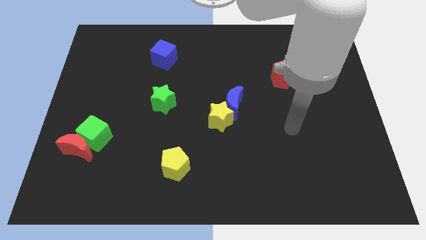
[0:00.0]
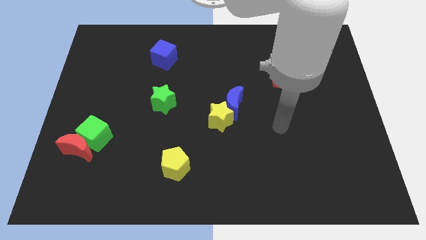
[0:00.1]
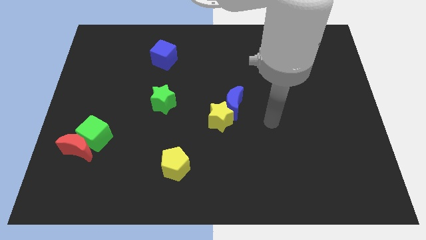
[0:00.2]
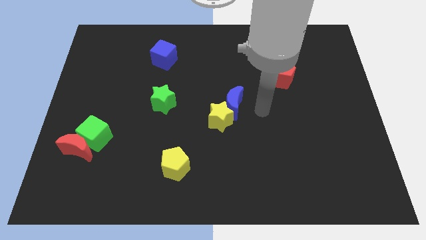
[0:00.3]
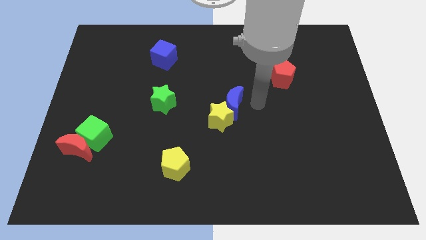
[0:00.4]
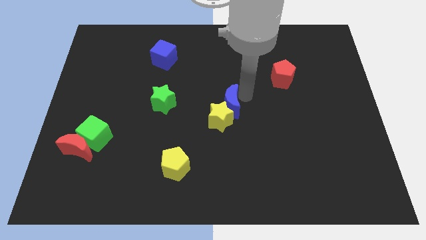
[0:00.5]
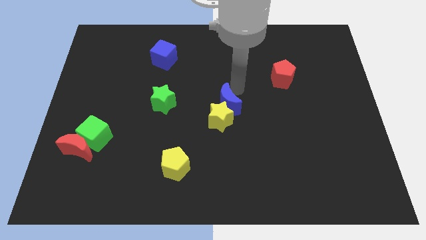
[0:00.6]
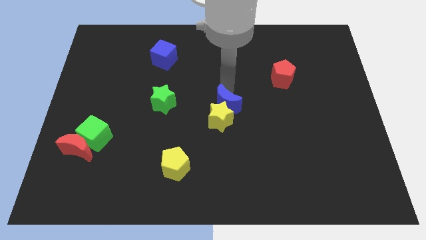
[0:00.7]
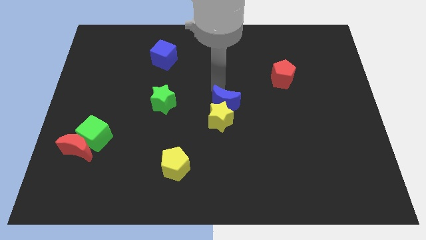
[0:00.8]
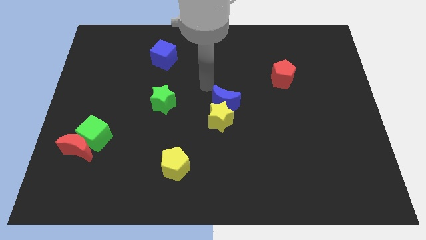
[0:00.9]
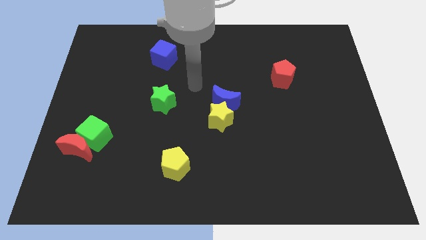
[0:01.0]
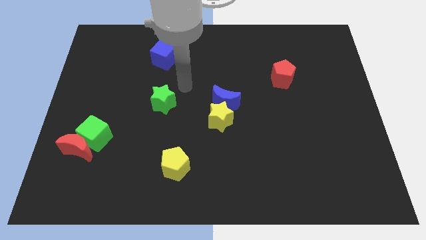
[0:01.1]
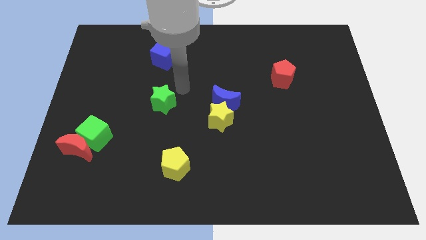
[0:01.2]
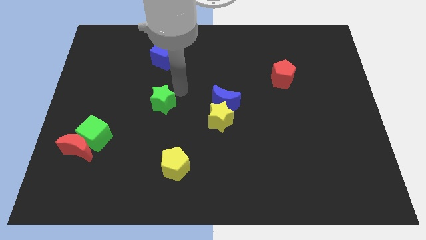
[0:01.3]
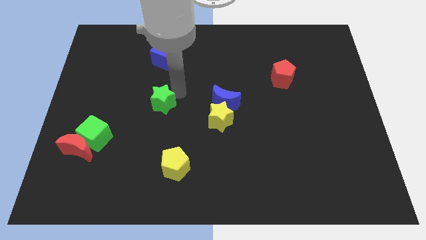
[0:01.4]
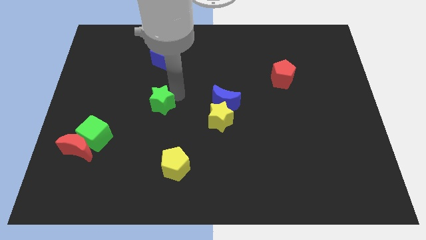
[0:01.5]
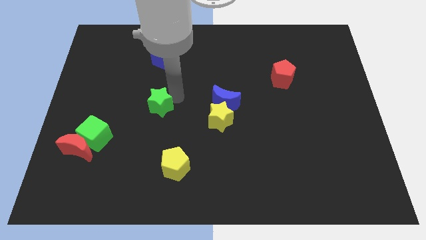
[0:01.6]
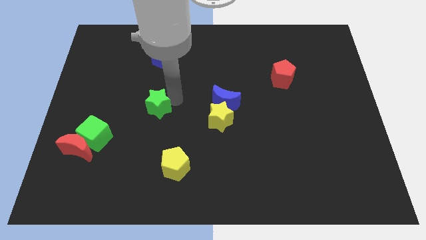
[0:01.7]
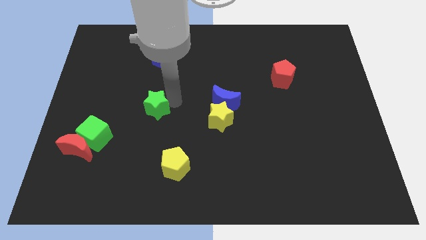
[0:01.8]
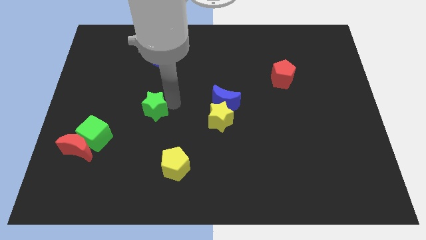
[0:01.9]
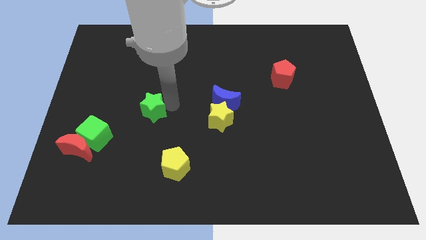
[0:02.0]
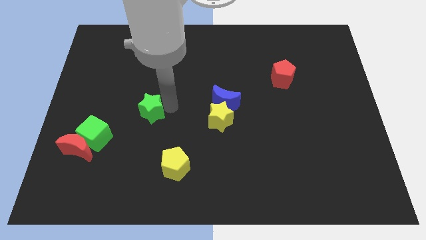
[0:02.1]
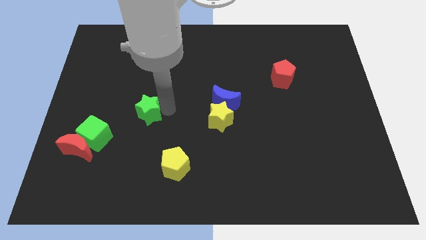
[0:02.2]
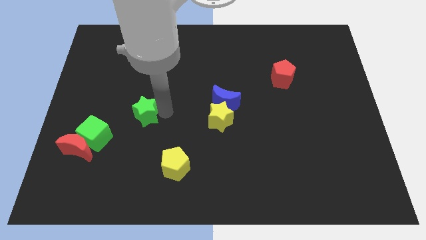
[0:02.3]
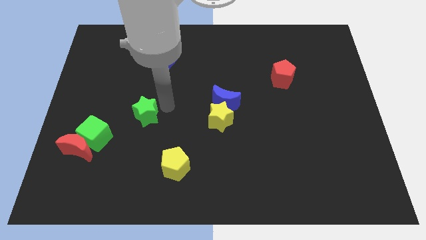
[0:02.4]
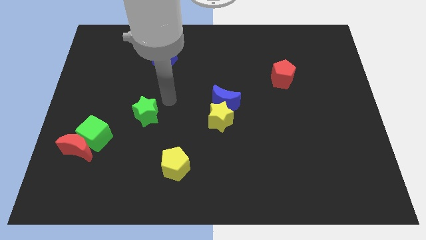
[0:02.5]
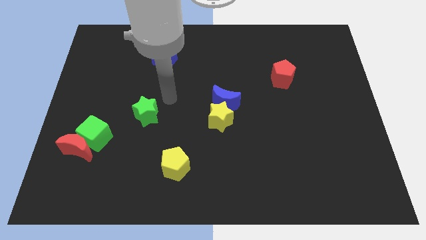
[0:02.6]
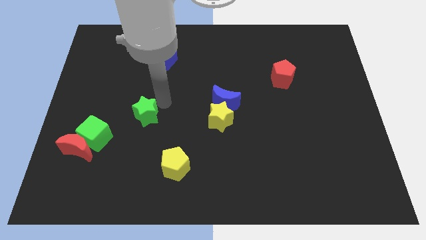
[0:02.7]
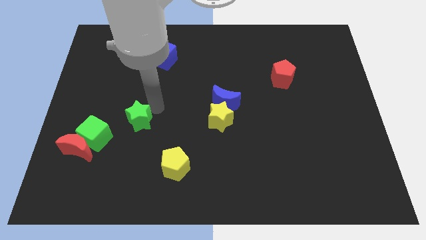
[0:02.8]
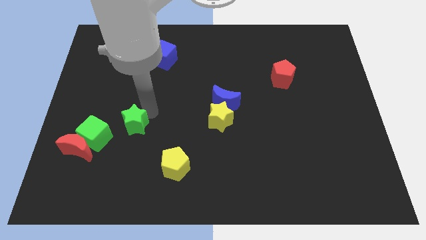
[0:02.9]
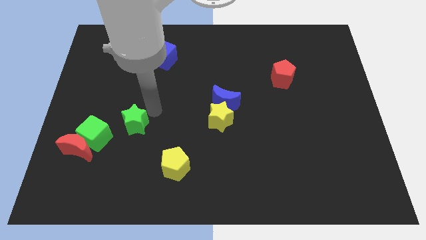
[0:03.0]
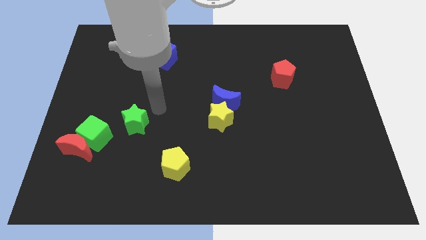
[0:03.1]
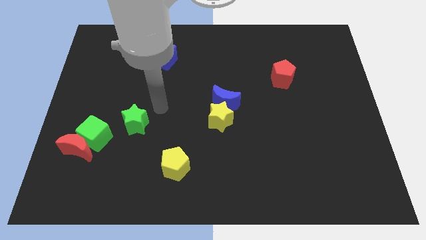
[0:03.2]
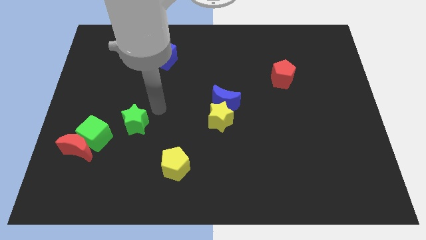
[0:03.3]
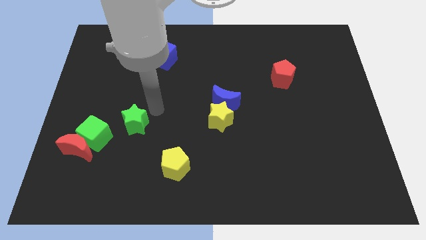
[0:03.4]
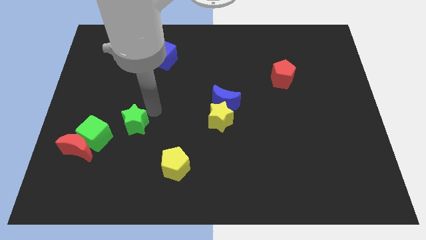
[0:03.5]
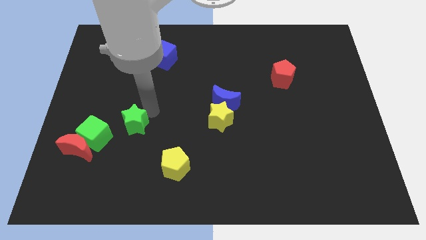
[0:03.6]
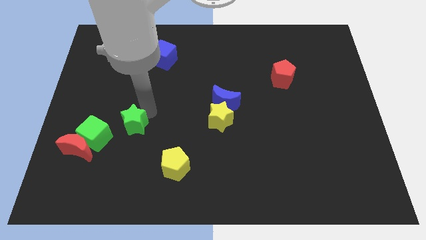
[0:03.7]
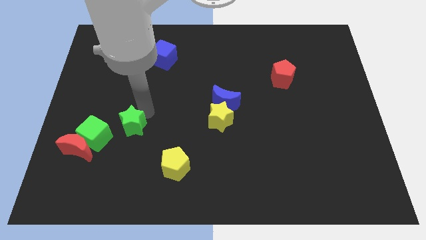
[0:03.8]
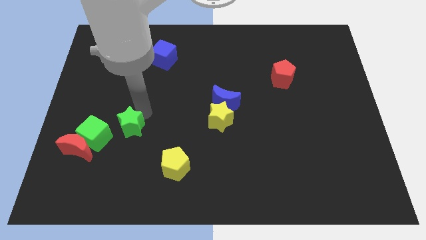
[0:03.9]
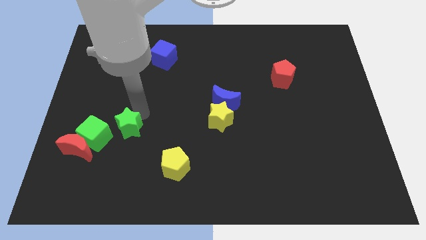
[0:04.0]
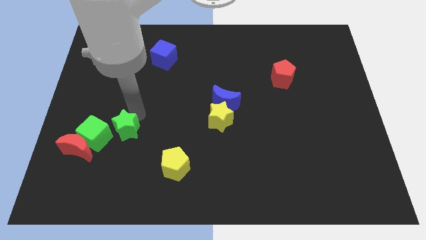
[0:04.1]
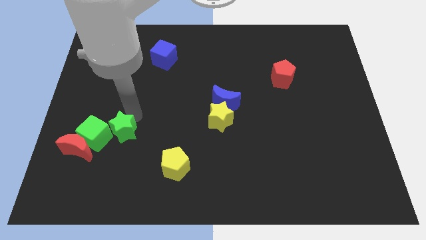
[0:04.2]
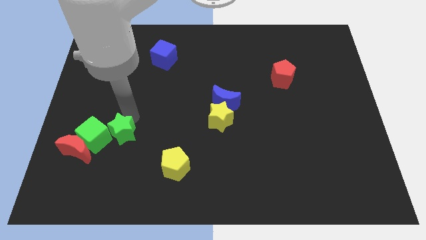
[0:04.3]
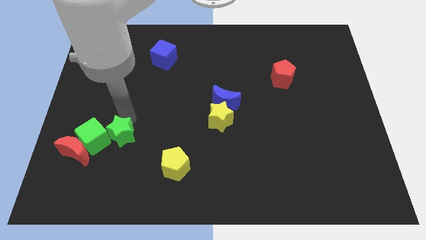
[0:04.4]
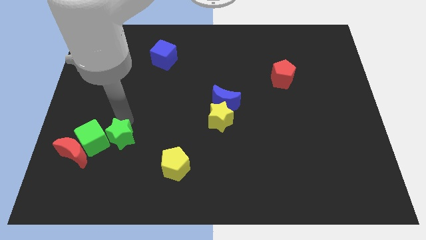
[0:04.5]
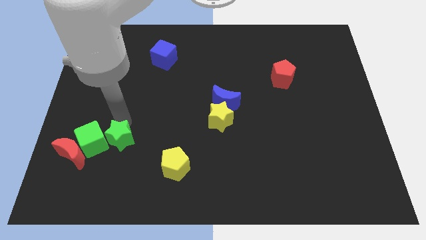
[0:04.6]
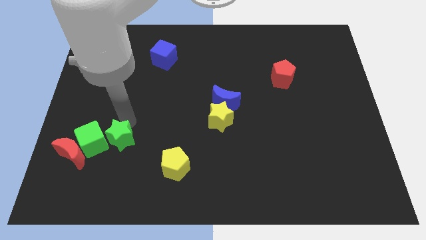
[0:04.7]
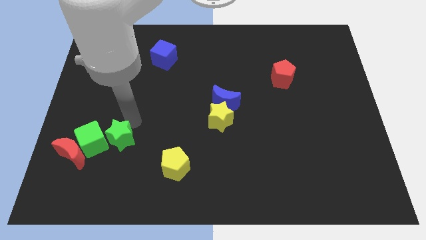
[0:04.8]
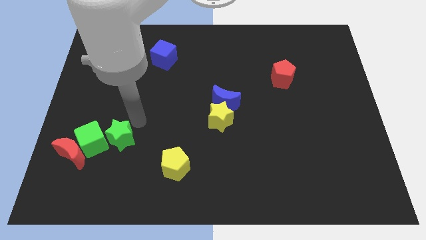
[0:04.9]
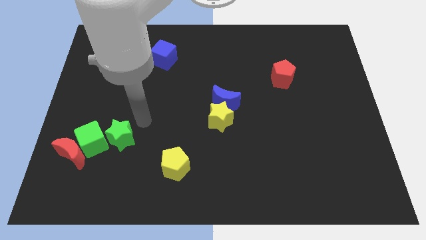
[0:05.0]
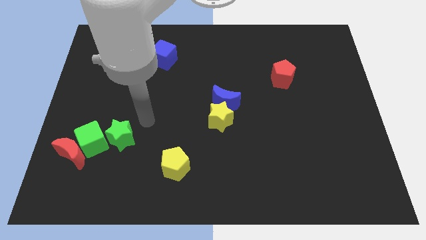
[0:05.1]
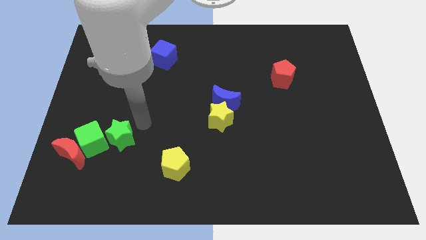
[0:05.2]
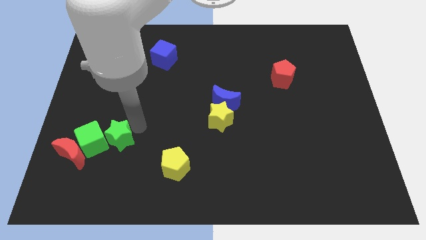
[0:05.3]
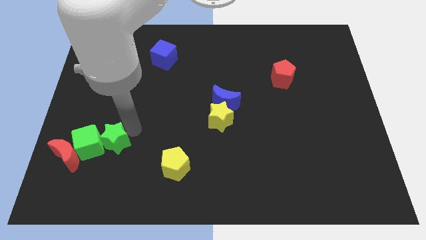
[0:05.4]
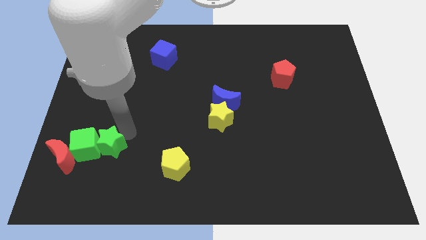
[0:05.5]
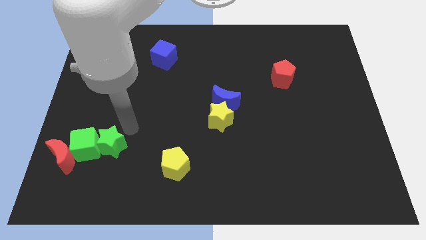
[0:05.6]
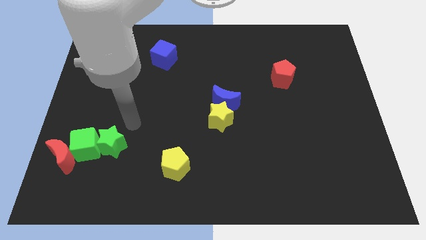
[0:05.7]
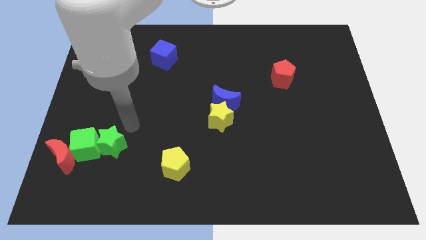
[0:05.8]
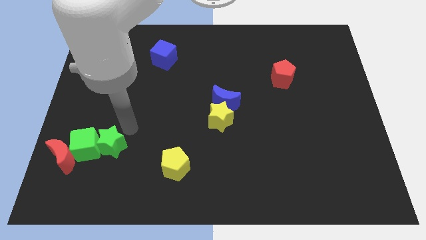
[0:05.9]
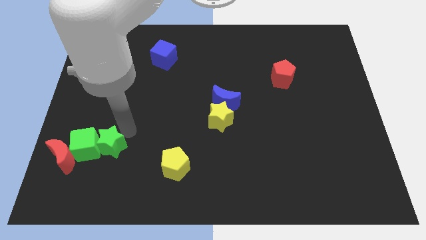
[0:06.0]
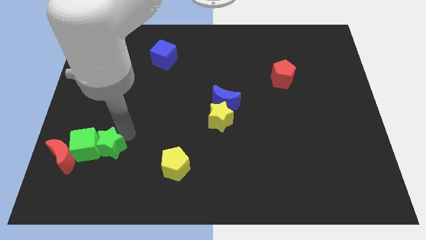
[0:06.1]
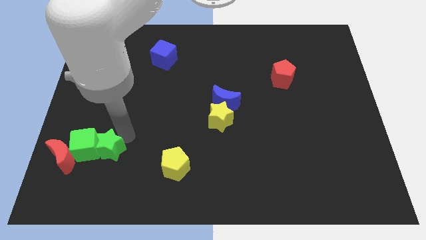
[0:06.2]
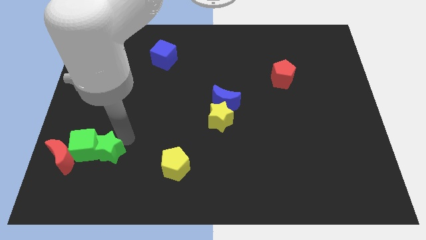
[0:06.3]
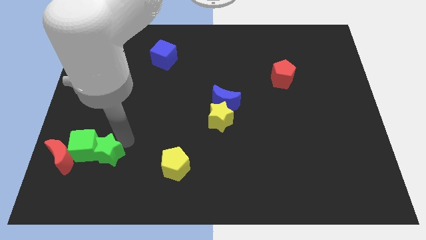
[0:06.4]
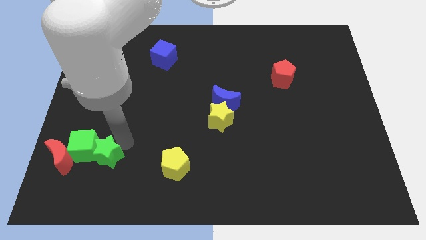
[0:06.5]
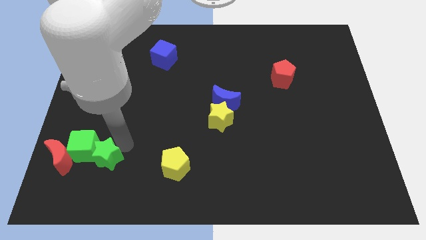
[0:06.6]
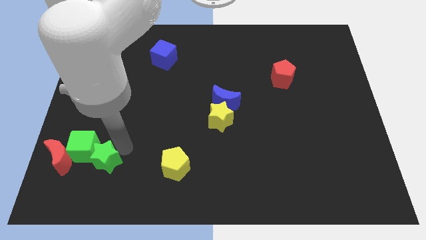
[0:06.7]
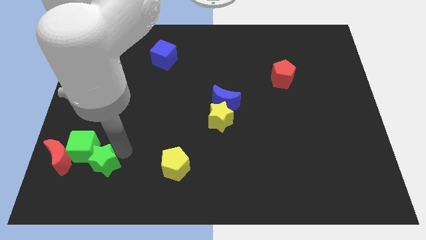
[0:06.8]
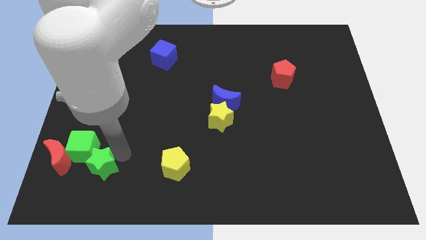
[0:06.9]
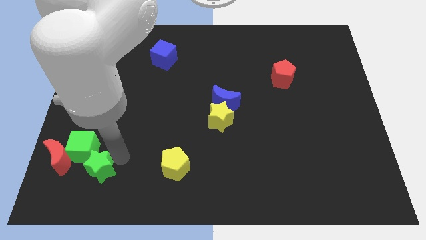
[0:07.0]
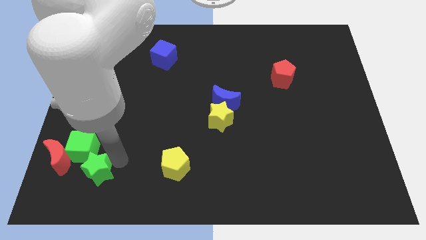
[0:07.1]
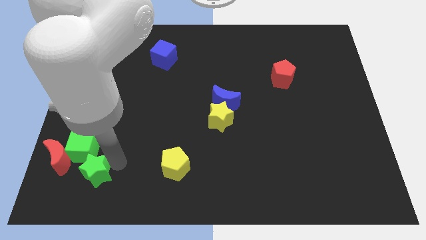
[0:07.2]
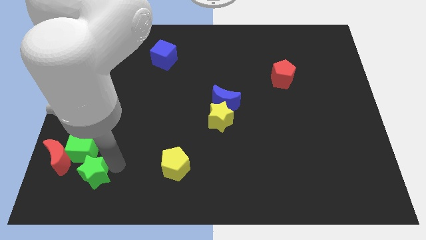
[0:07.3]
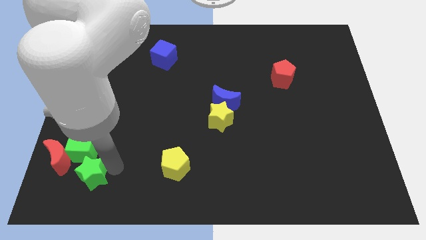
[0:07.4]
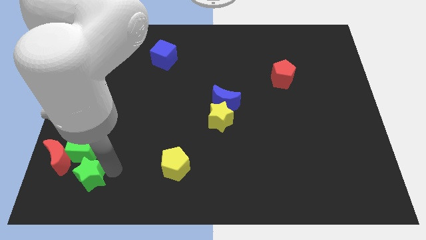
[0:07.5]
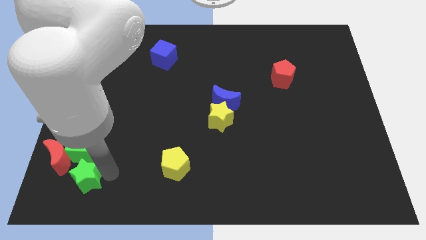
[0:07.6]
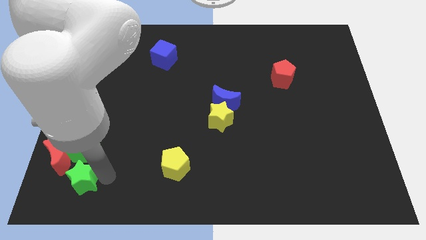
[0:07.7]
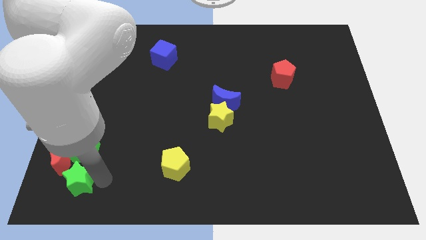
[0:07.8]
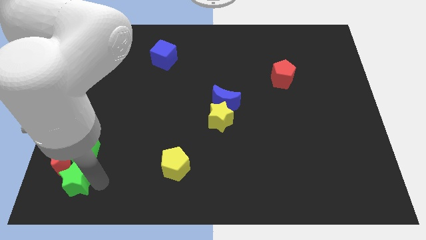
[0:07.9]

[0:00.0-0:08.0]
move the green star to the bottom left corner
